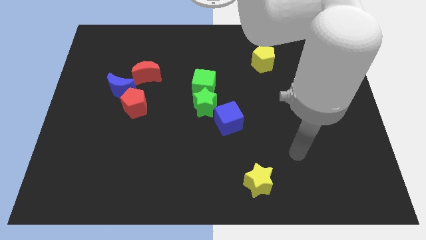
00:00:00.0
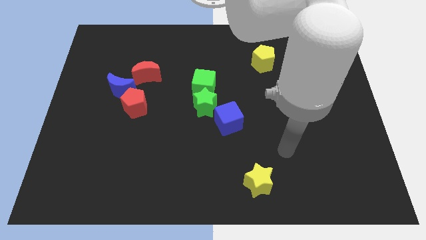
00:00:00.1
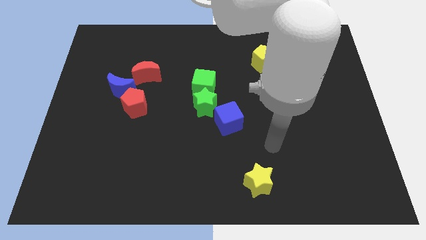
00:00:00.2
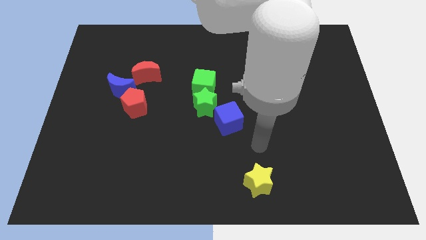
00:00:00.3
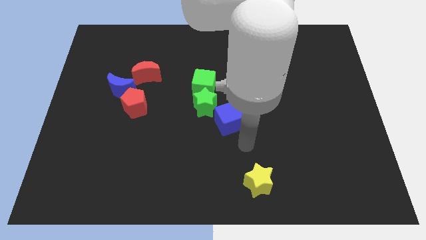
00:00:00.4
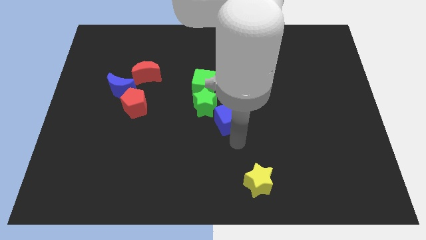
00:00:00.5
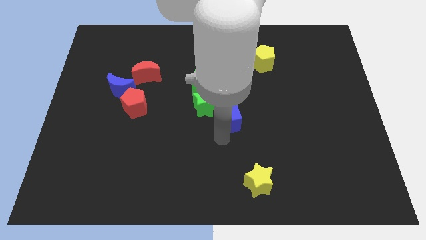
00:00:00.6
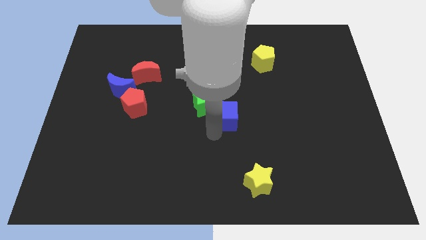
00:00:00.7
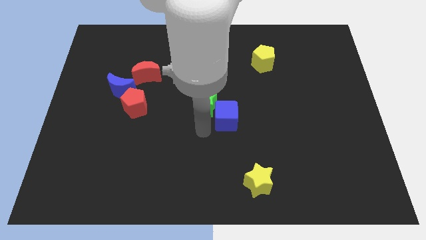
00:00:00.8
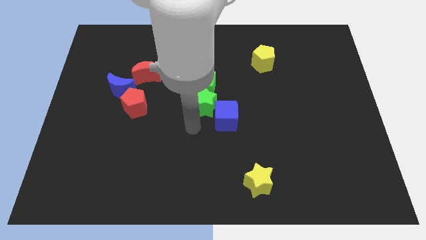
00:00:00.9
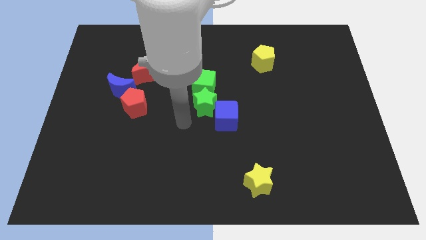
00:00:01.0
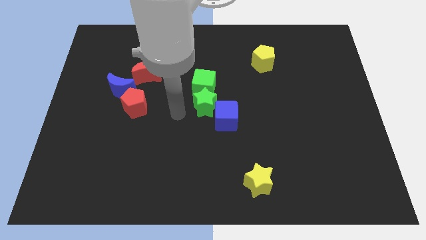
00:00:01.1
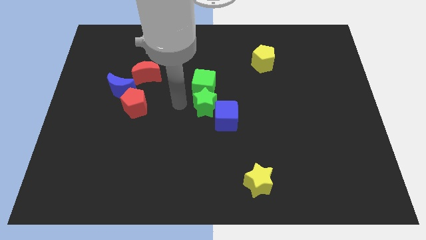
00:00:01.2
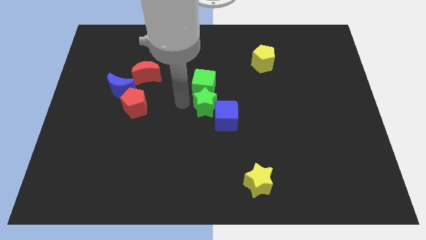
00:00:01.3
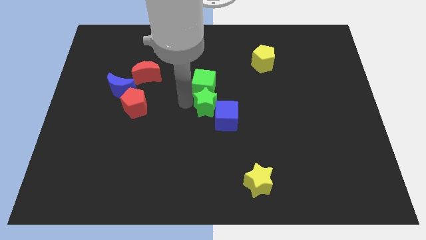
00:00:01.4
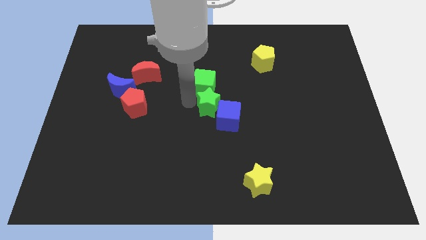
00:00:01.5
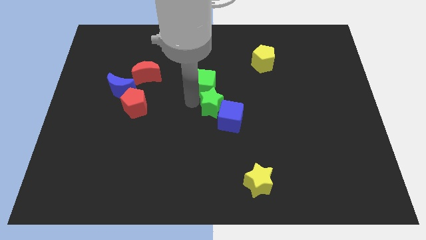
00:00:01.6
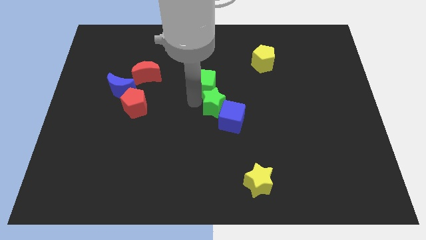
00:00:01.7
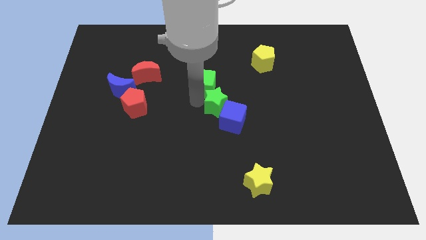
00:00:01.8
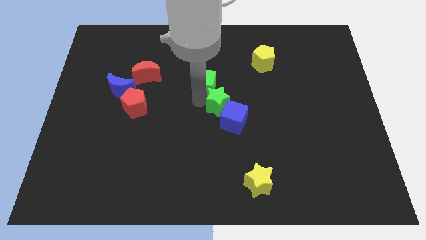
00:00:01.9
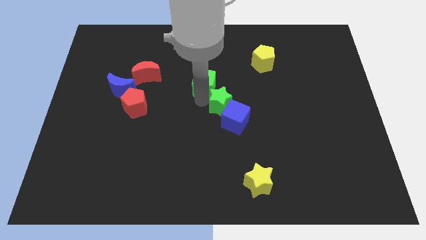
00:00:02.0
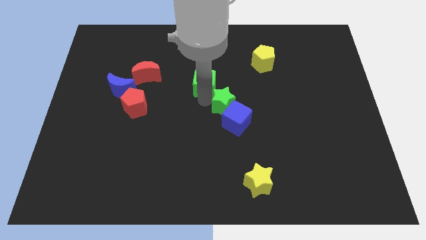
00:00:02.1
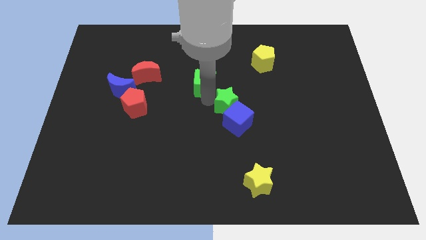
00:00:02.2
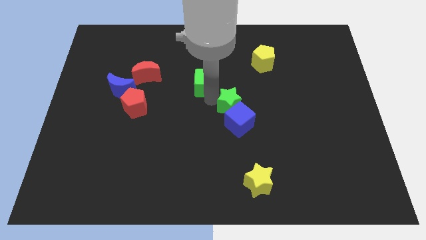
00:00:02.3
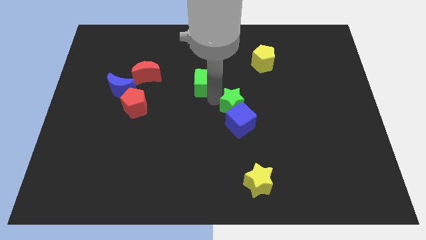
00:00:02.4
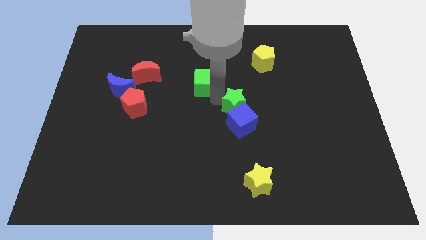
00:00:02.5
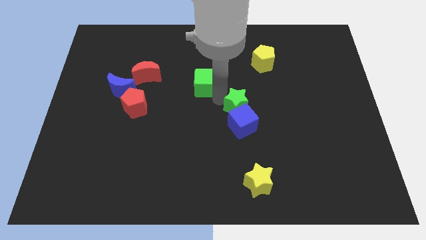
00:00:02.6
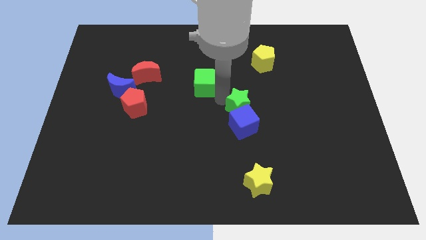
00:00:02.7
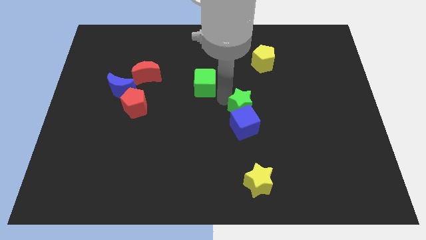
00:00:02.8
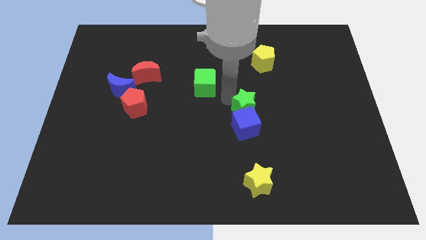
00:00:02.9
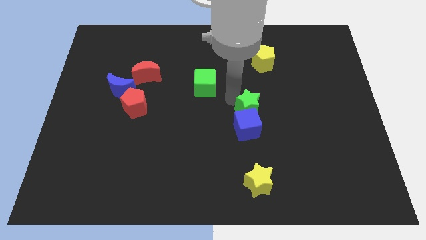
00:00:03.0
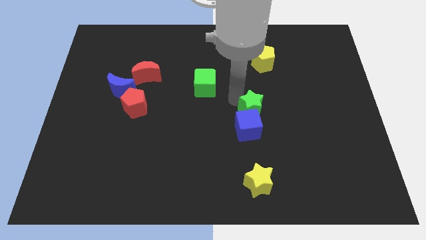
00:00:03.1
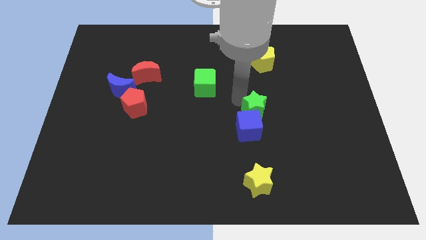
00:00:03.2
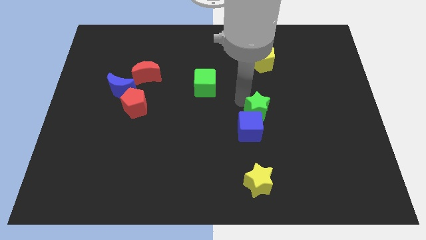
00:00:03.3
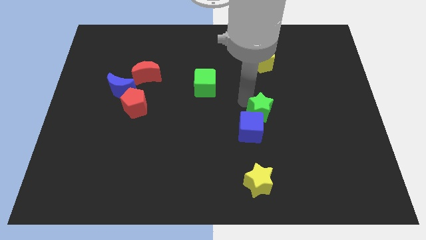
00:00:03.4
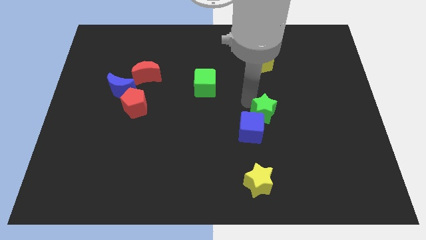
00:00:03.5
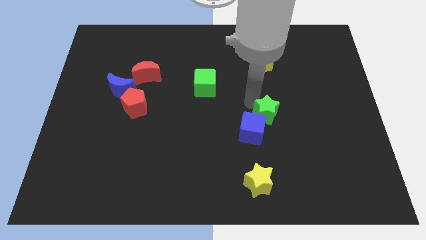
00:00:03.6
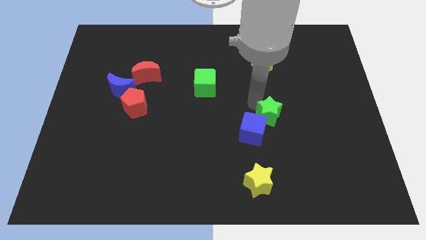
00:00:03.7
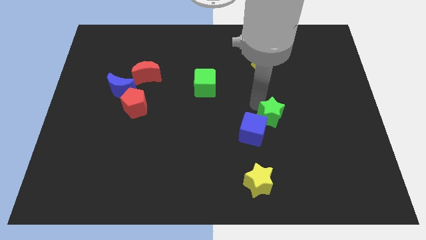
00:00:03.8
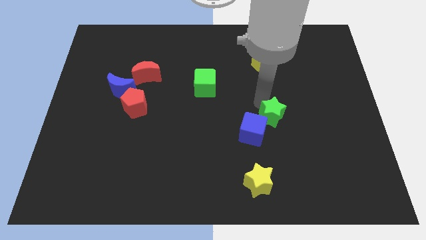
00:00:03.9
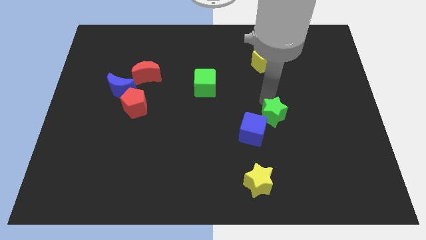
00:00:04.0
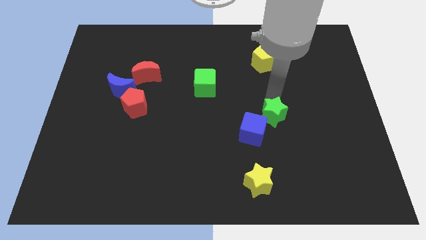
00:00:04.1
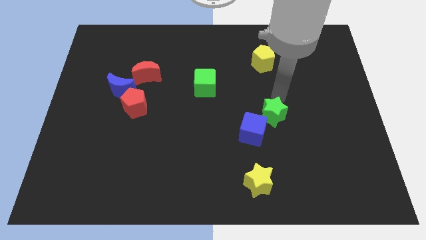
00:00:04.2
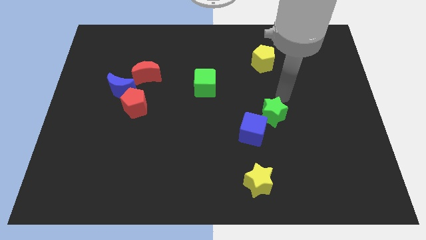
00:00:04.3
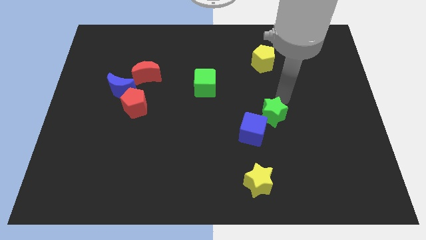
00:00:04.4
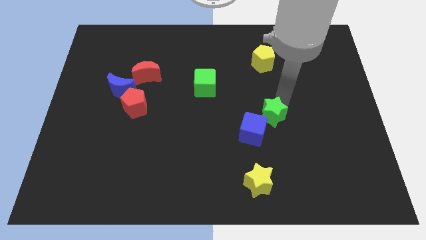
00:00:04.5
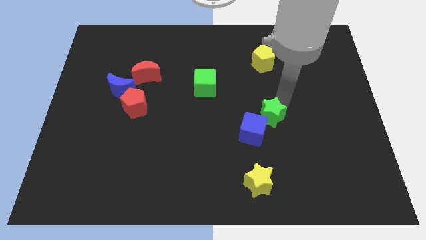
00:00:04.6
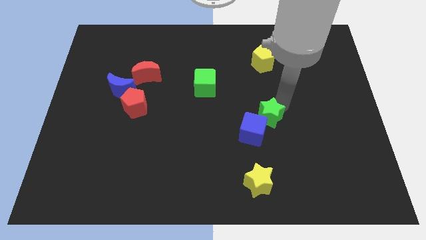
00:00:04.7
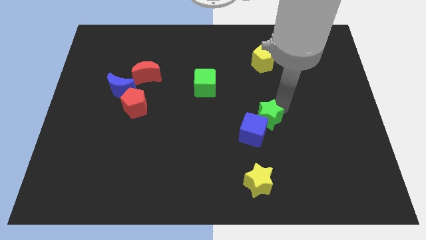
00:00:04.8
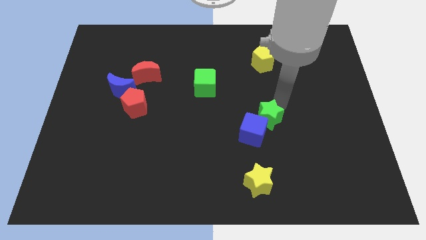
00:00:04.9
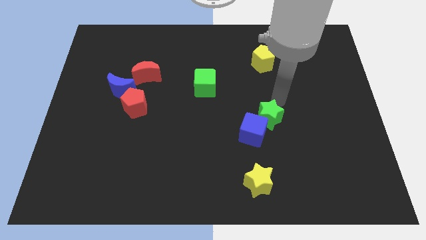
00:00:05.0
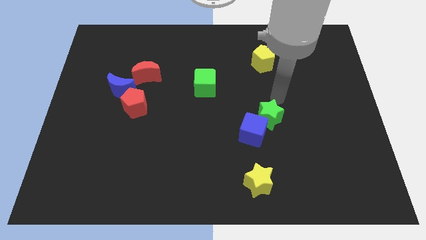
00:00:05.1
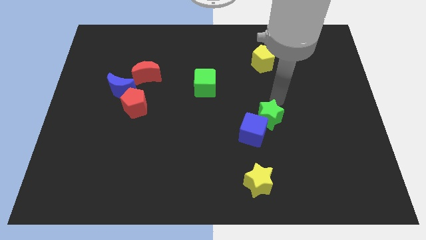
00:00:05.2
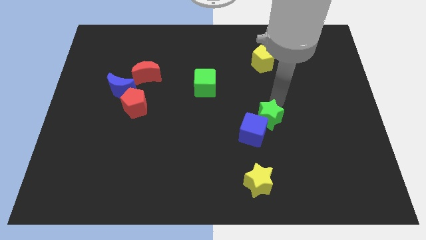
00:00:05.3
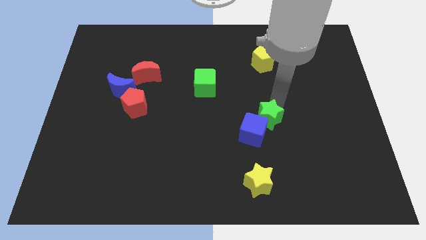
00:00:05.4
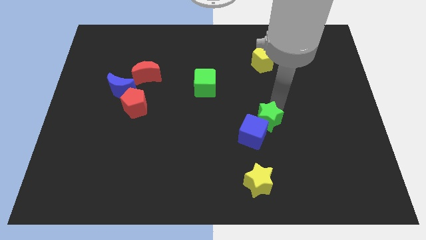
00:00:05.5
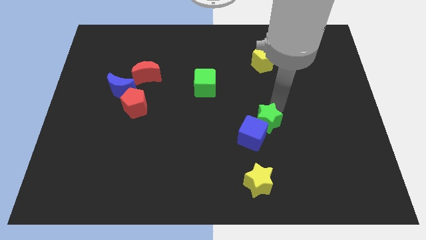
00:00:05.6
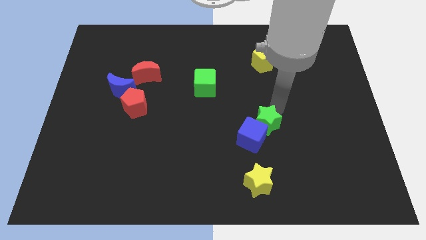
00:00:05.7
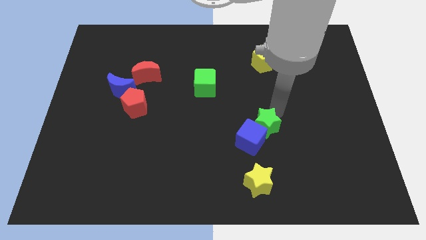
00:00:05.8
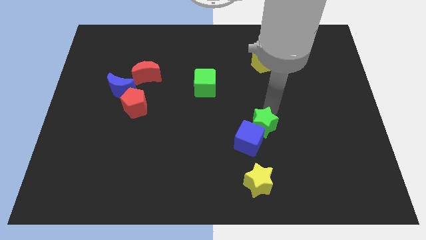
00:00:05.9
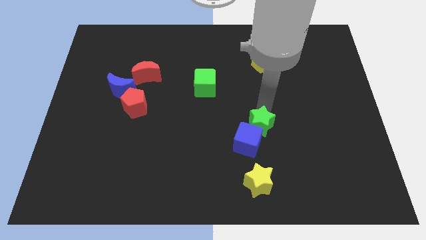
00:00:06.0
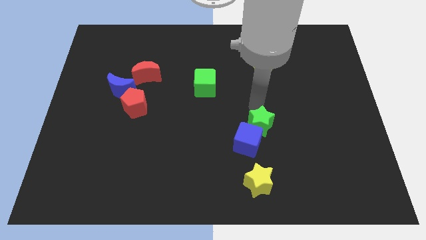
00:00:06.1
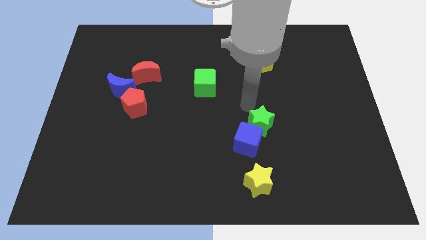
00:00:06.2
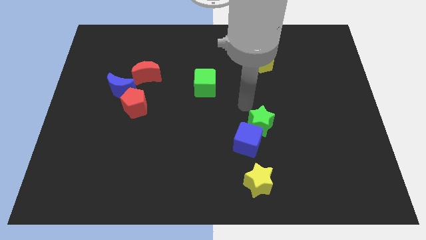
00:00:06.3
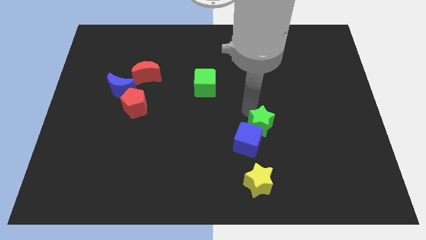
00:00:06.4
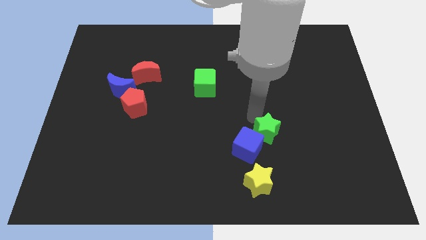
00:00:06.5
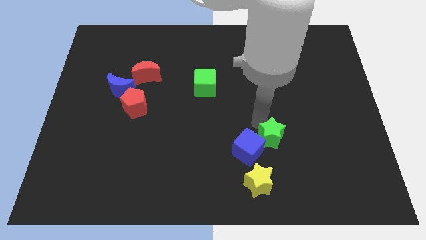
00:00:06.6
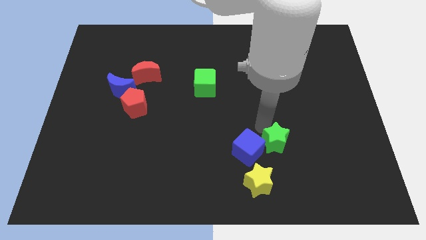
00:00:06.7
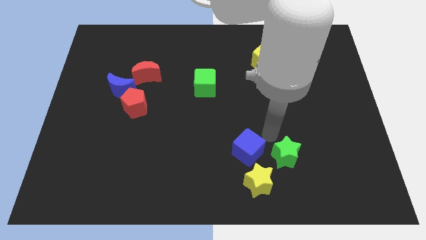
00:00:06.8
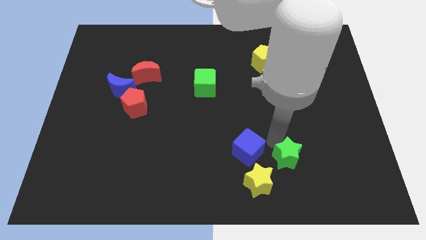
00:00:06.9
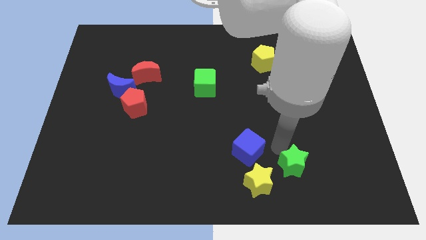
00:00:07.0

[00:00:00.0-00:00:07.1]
slide the green star to the right of the yellow star
